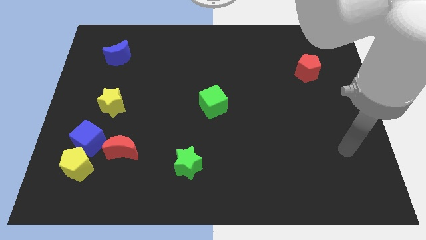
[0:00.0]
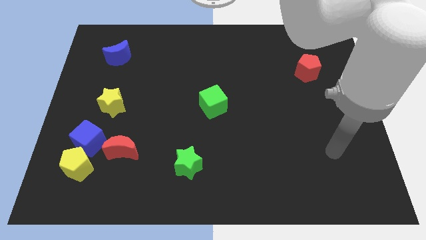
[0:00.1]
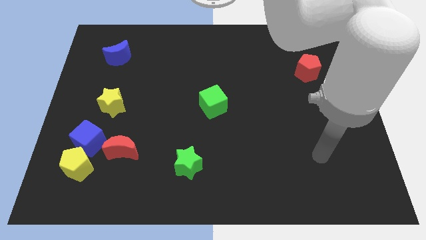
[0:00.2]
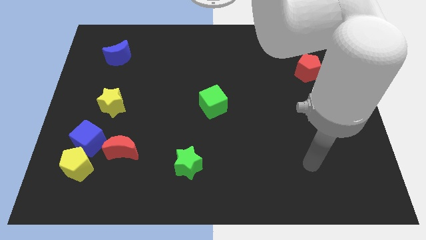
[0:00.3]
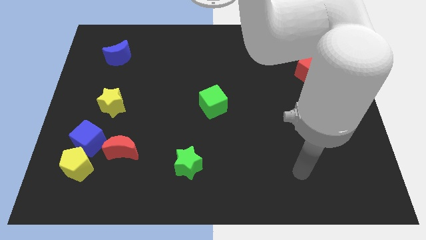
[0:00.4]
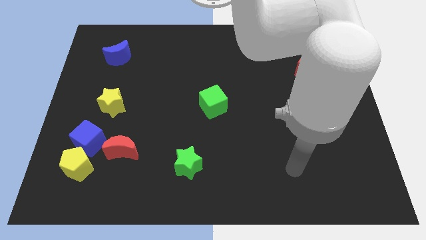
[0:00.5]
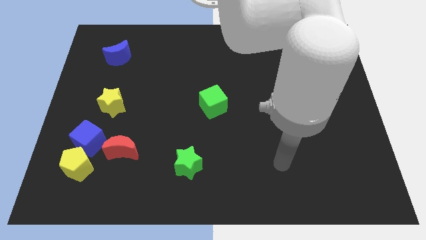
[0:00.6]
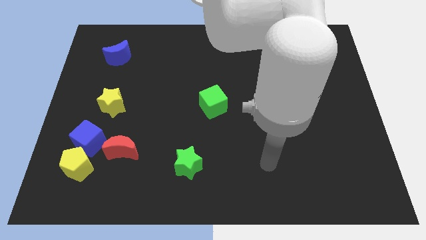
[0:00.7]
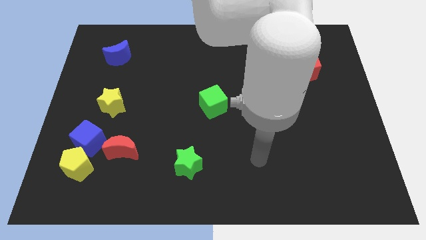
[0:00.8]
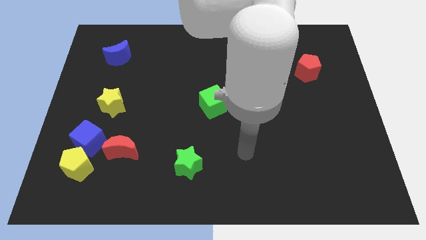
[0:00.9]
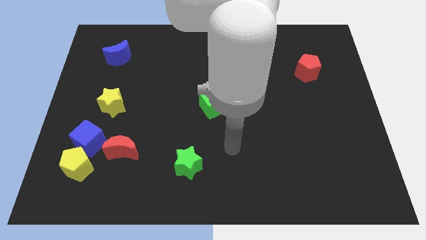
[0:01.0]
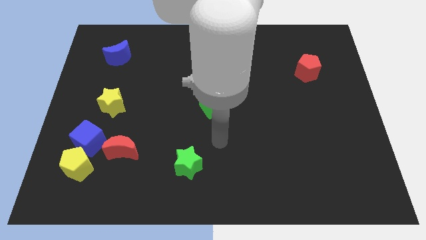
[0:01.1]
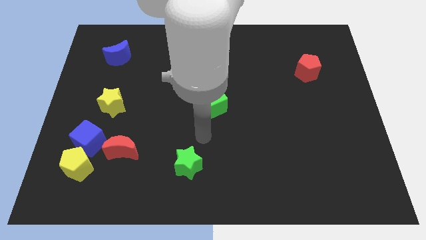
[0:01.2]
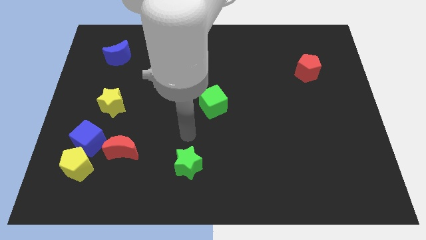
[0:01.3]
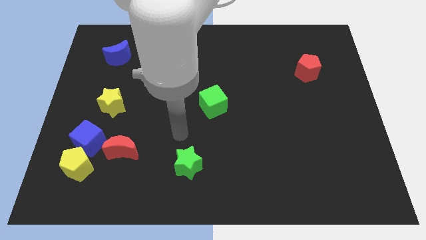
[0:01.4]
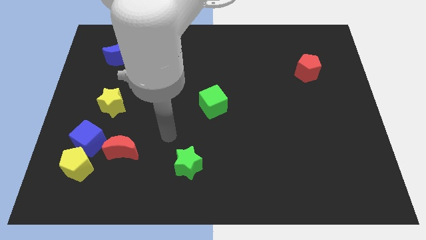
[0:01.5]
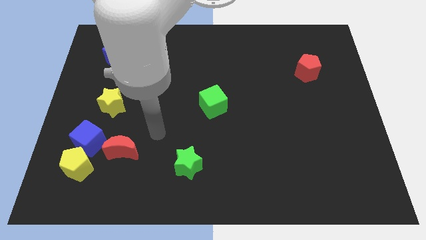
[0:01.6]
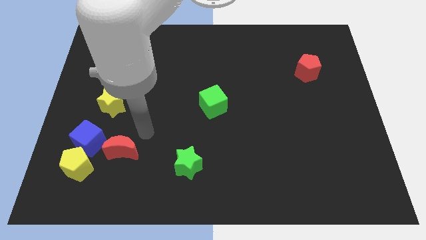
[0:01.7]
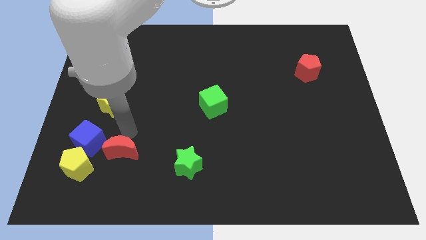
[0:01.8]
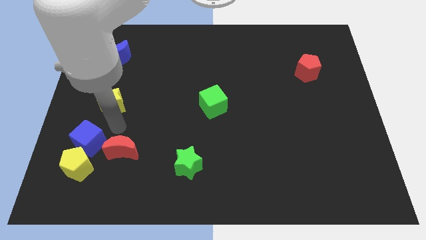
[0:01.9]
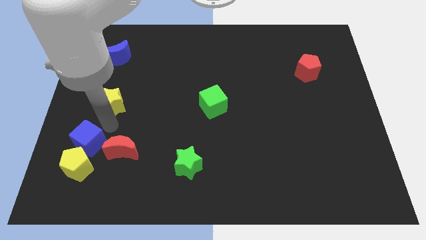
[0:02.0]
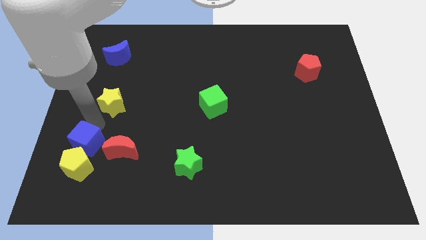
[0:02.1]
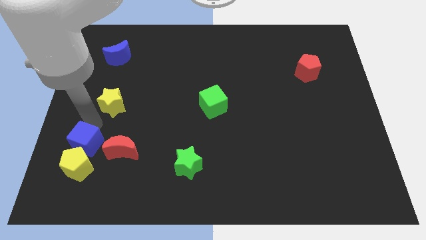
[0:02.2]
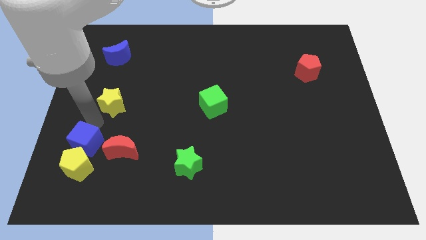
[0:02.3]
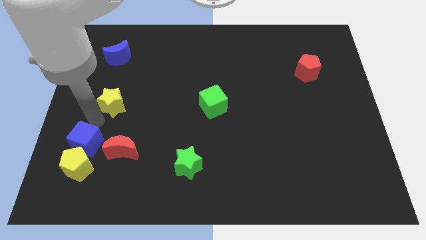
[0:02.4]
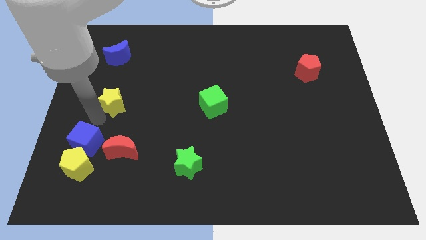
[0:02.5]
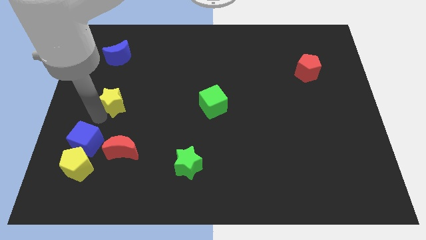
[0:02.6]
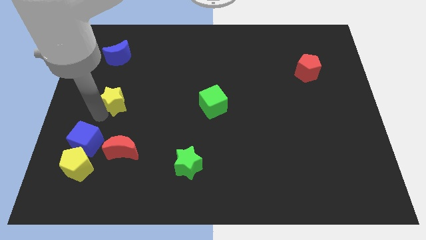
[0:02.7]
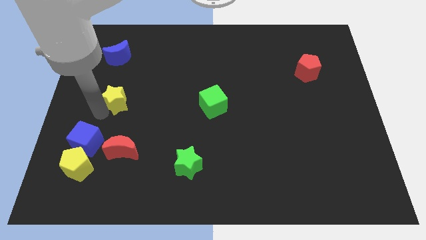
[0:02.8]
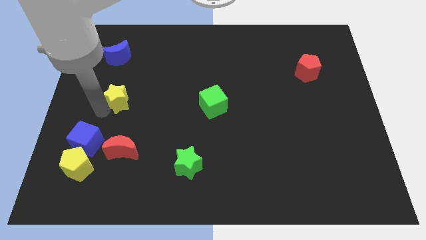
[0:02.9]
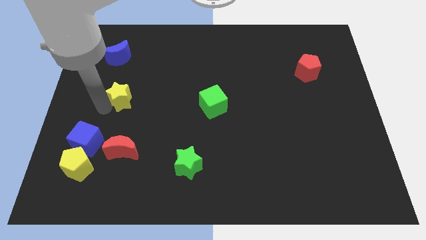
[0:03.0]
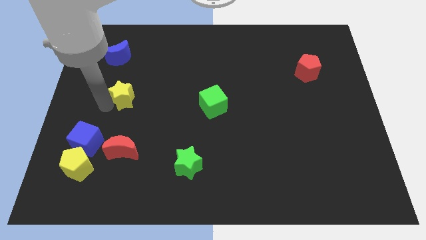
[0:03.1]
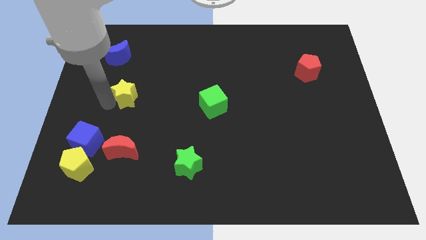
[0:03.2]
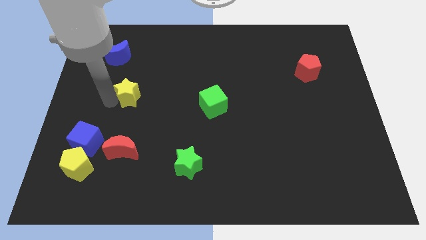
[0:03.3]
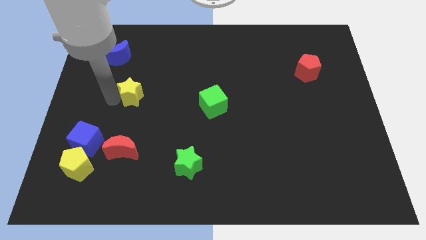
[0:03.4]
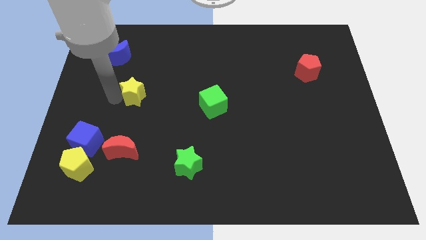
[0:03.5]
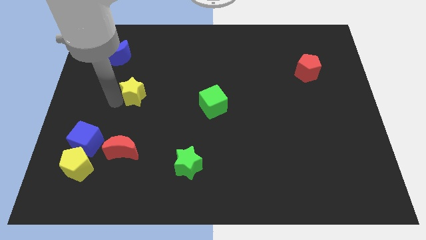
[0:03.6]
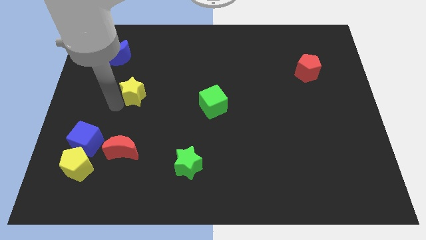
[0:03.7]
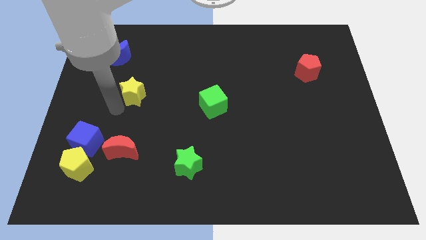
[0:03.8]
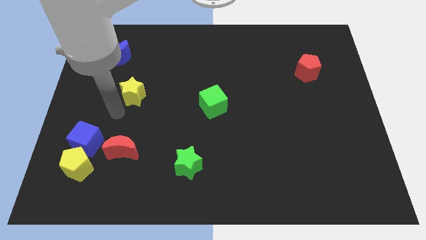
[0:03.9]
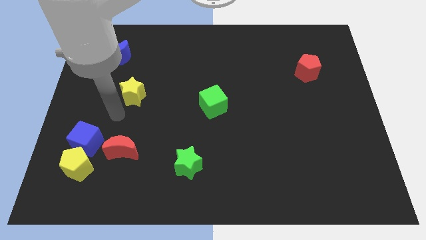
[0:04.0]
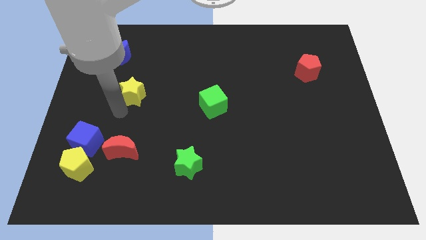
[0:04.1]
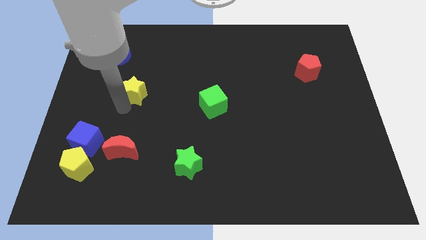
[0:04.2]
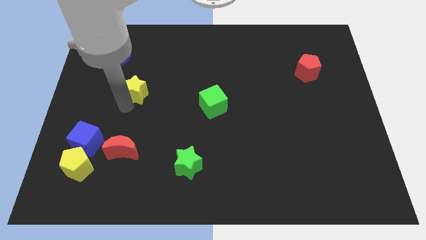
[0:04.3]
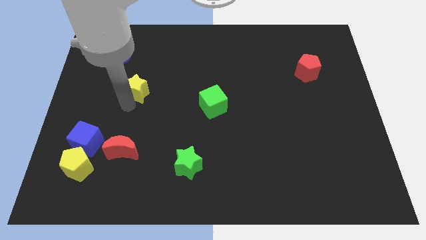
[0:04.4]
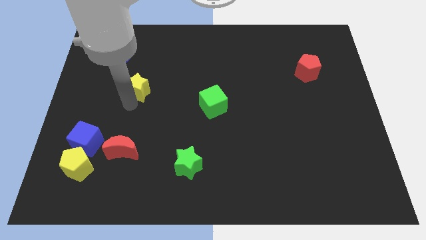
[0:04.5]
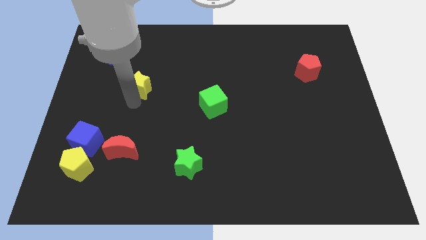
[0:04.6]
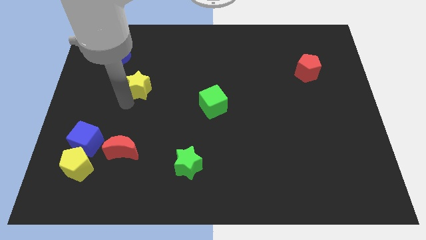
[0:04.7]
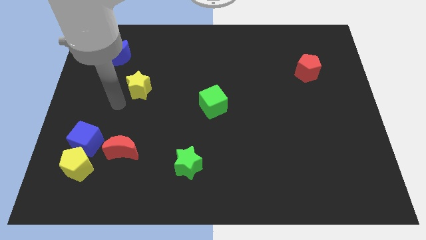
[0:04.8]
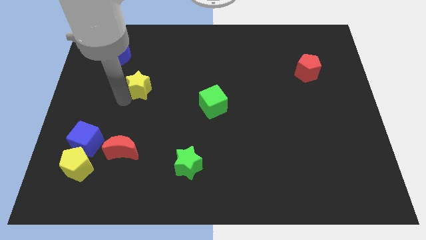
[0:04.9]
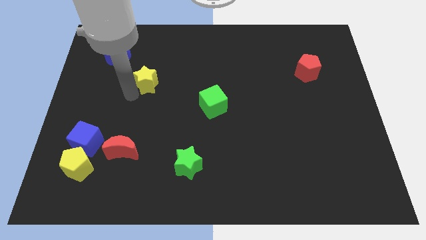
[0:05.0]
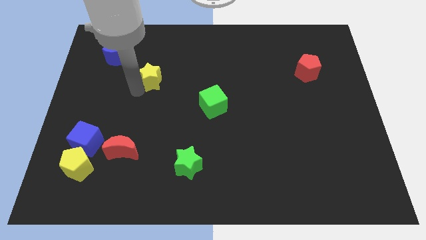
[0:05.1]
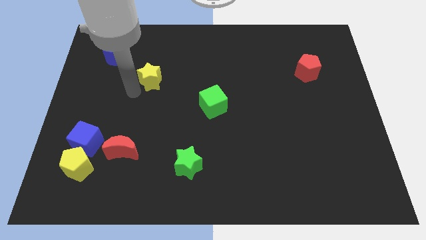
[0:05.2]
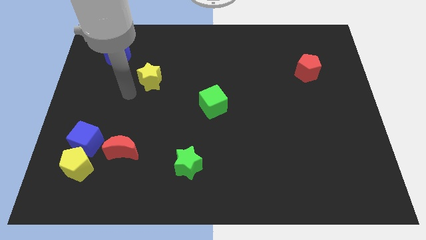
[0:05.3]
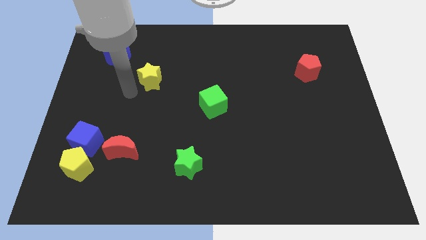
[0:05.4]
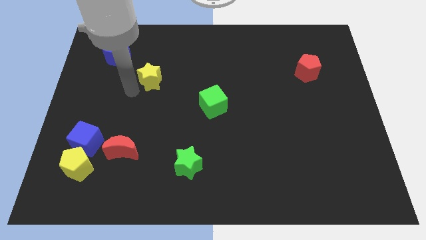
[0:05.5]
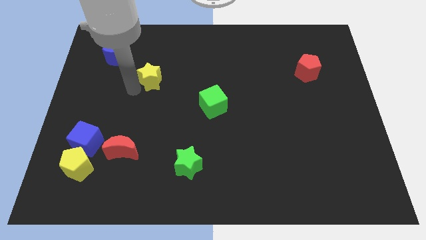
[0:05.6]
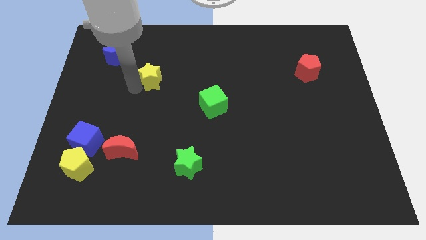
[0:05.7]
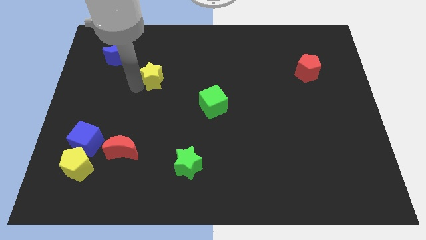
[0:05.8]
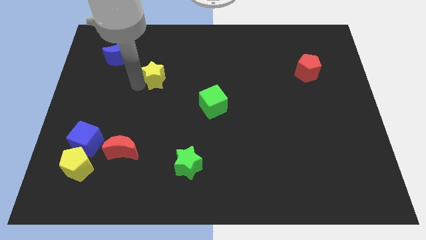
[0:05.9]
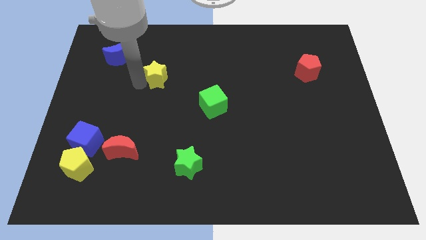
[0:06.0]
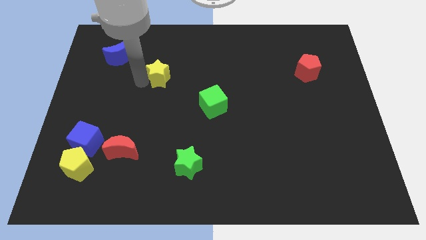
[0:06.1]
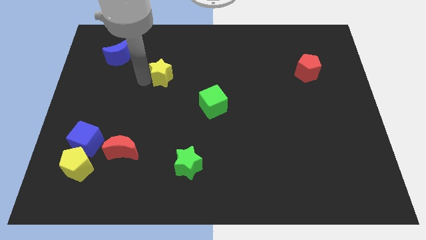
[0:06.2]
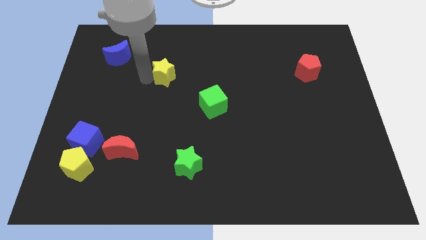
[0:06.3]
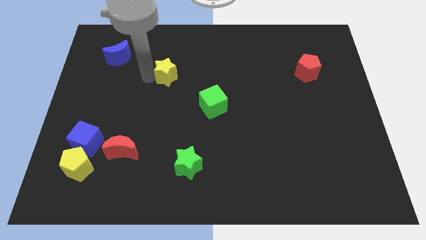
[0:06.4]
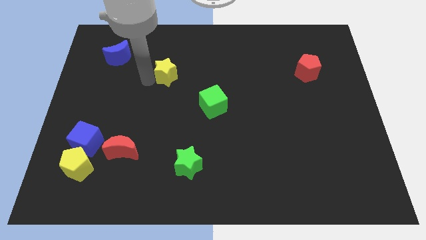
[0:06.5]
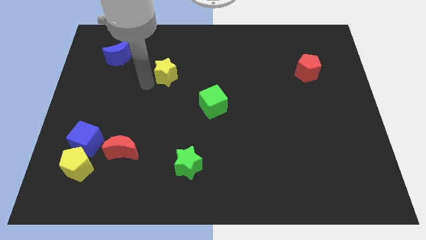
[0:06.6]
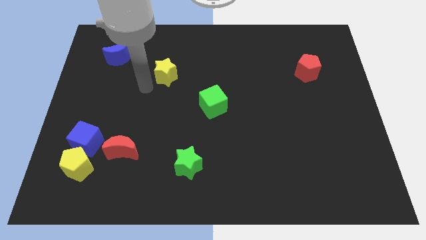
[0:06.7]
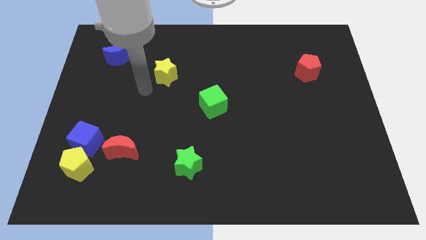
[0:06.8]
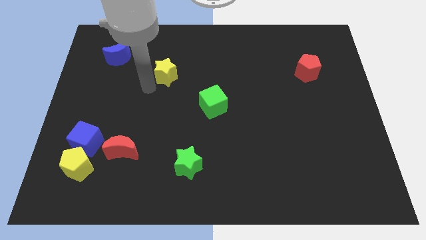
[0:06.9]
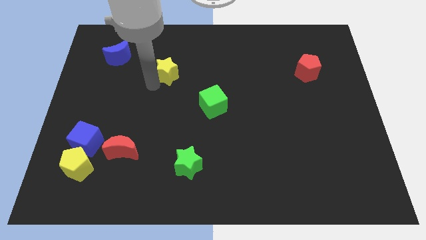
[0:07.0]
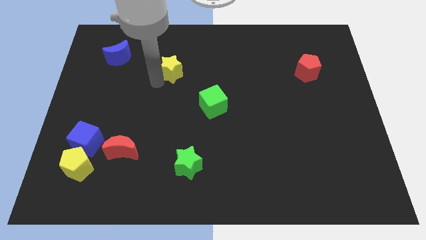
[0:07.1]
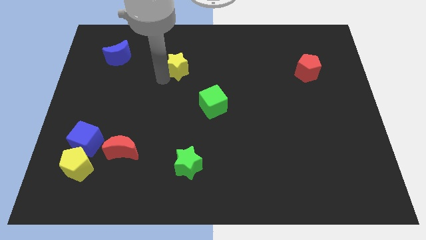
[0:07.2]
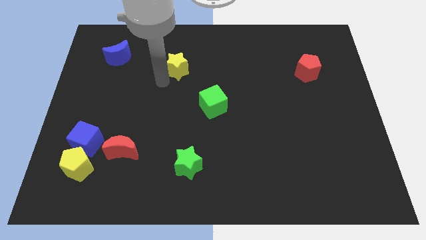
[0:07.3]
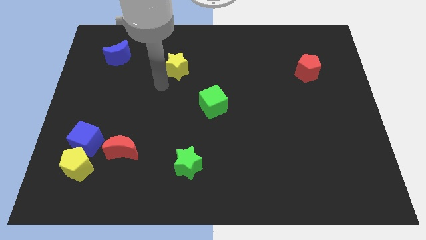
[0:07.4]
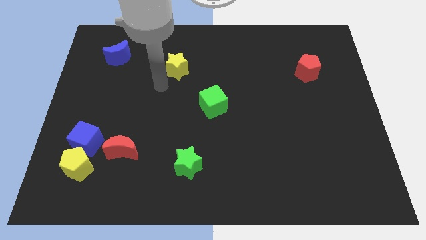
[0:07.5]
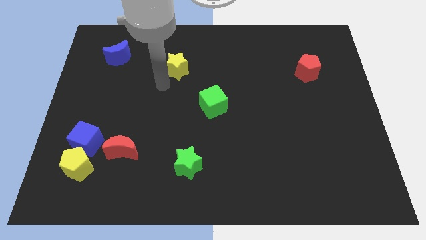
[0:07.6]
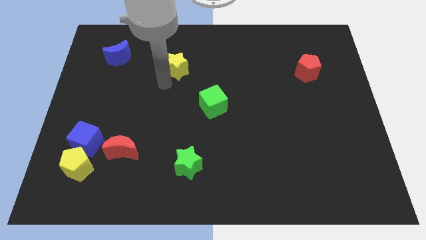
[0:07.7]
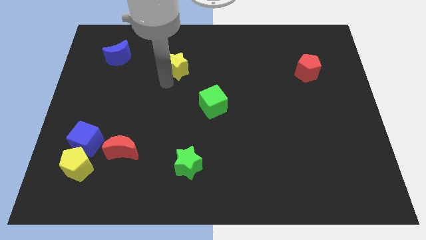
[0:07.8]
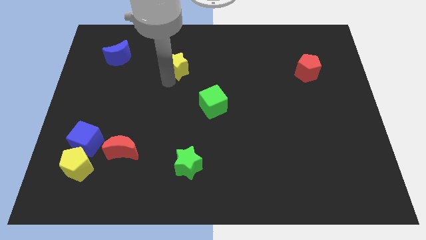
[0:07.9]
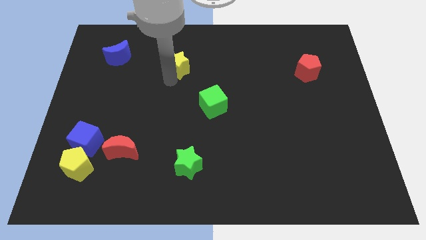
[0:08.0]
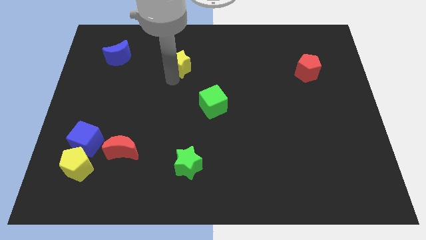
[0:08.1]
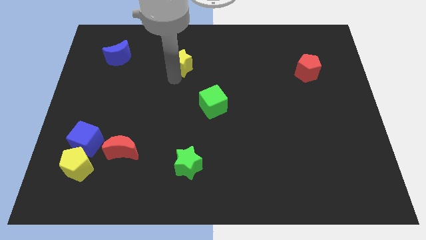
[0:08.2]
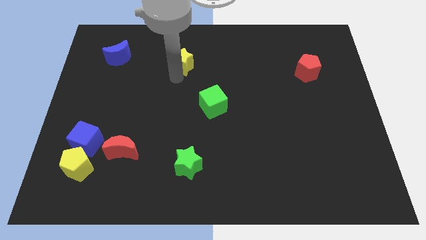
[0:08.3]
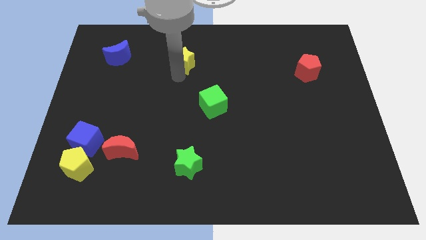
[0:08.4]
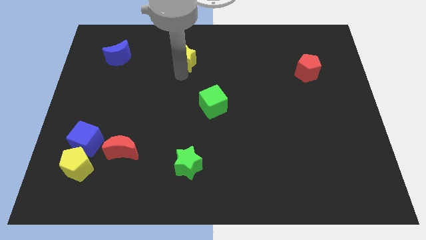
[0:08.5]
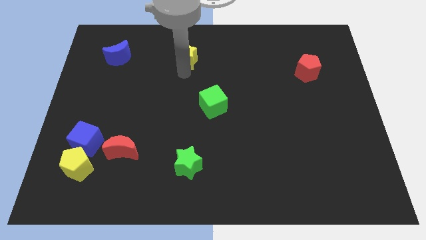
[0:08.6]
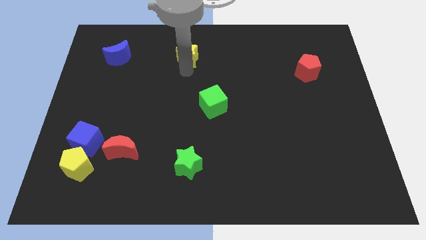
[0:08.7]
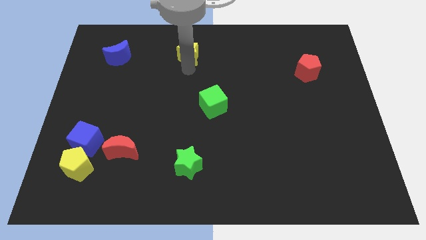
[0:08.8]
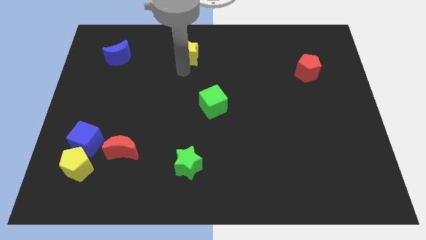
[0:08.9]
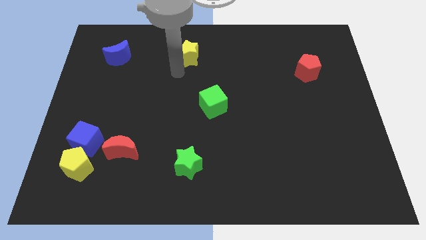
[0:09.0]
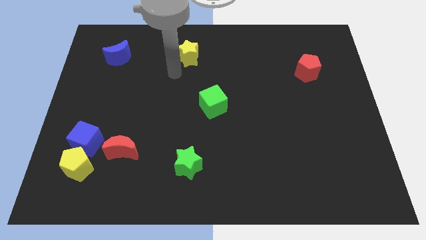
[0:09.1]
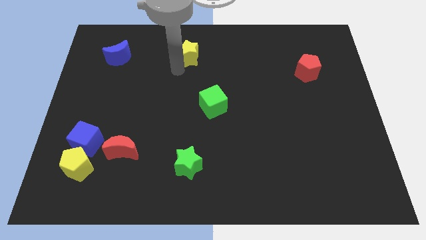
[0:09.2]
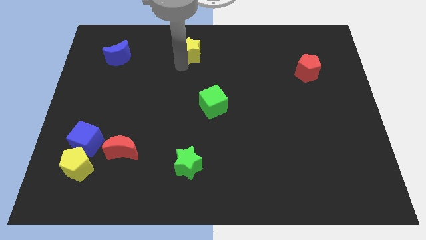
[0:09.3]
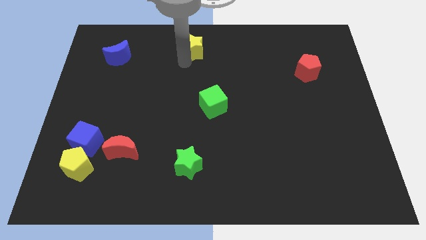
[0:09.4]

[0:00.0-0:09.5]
push the yellow star to the towards your base
